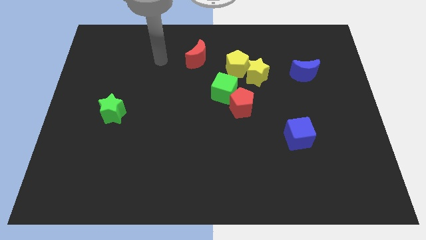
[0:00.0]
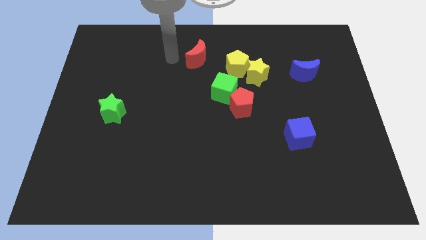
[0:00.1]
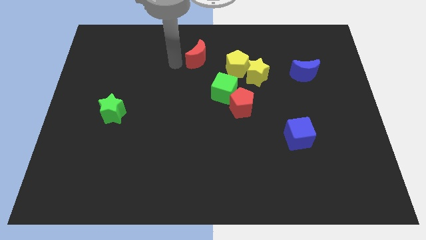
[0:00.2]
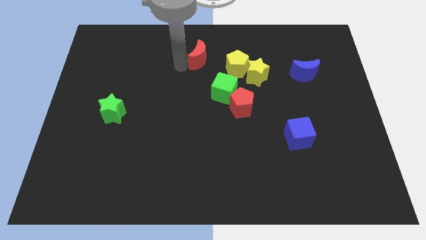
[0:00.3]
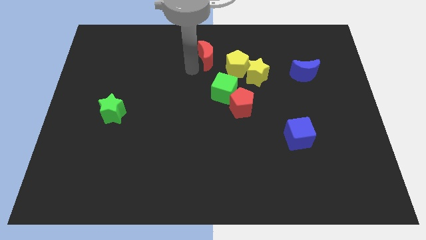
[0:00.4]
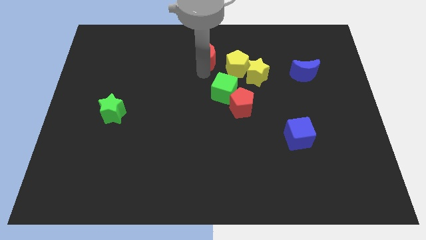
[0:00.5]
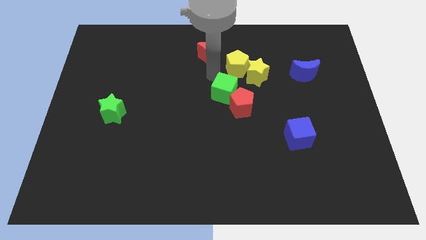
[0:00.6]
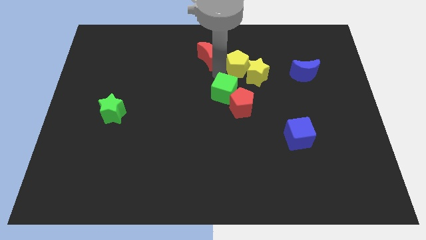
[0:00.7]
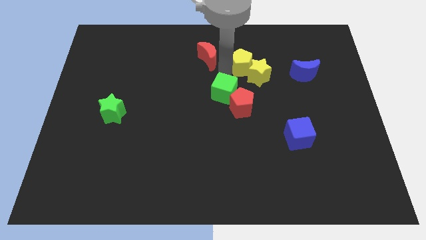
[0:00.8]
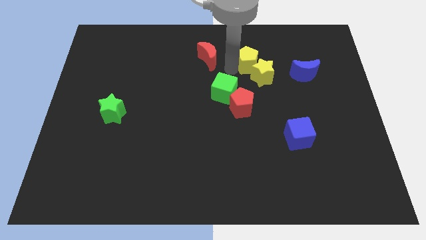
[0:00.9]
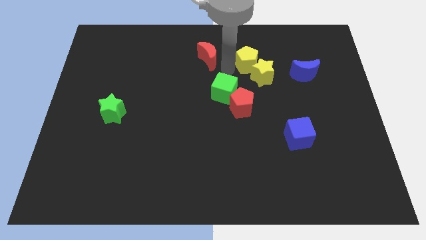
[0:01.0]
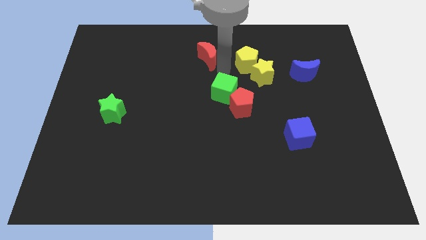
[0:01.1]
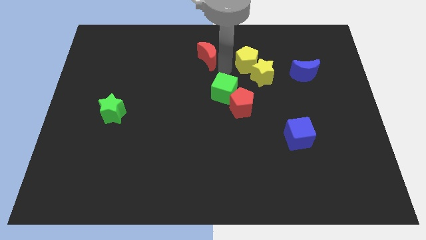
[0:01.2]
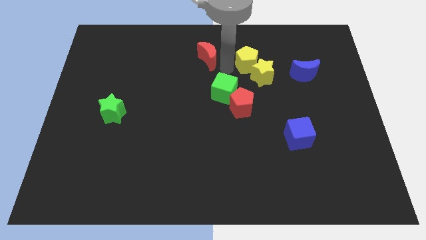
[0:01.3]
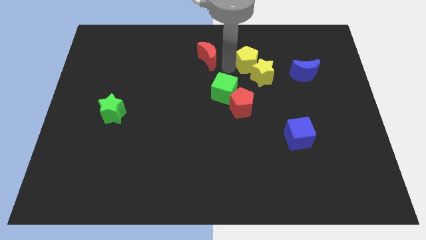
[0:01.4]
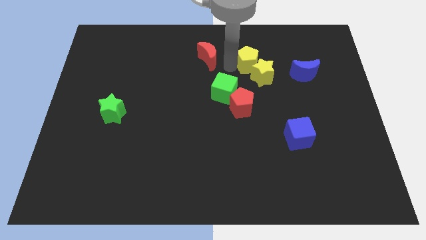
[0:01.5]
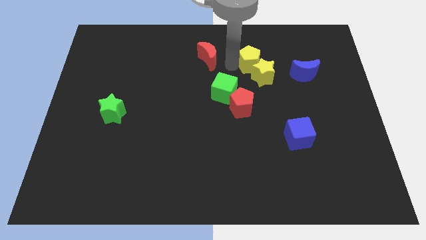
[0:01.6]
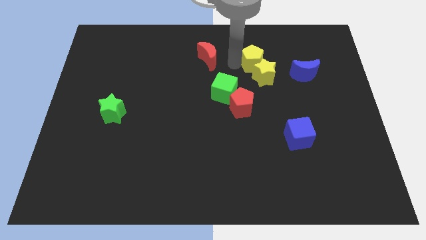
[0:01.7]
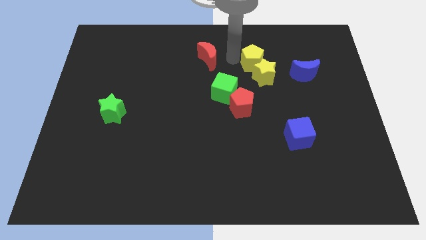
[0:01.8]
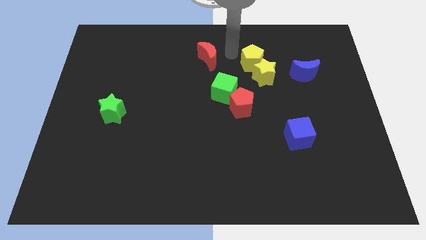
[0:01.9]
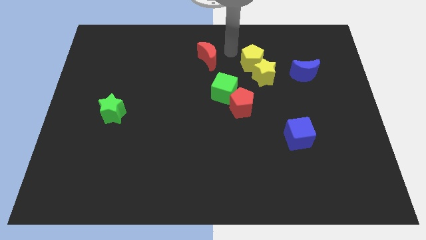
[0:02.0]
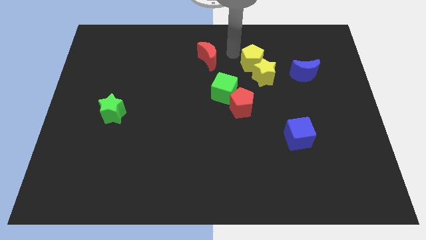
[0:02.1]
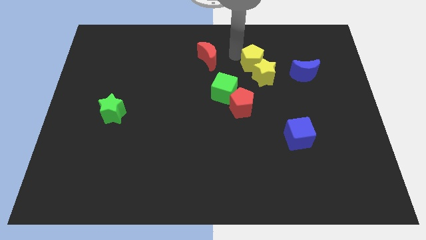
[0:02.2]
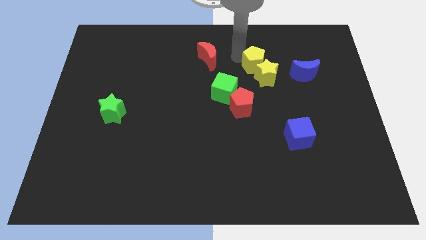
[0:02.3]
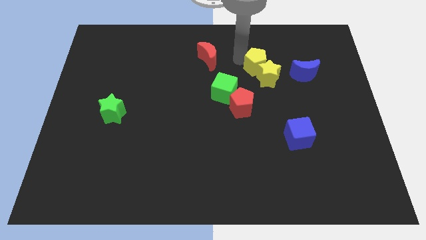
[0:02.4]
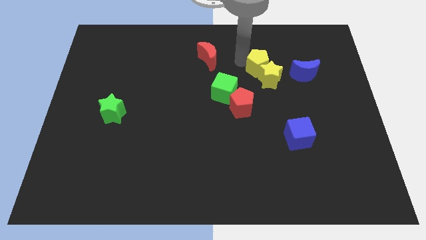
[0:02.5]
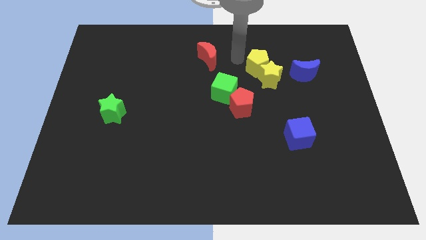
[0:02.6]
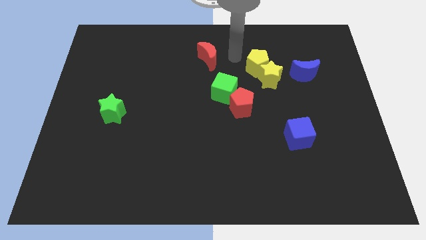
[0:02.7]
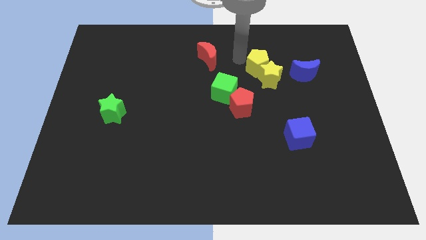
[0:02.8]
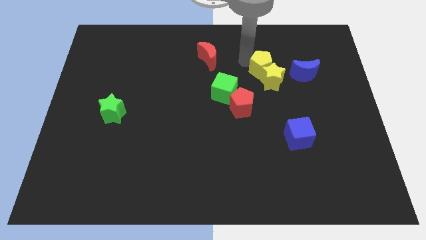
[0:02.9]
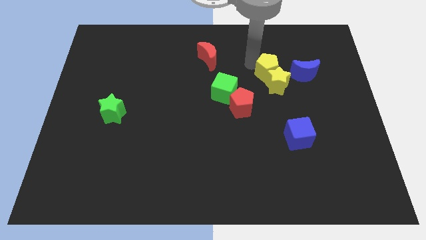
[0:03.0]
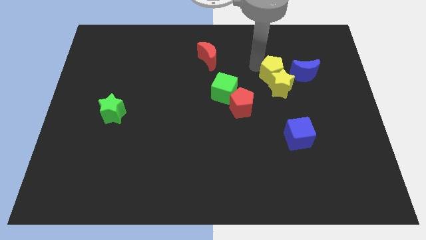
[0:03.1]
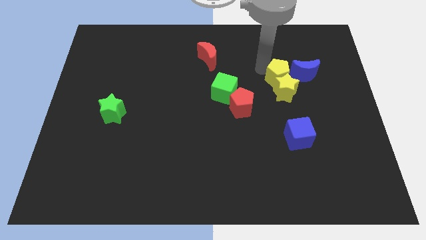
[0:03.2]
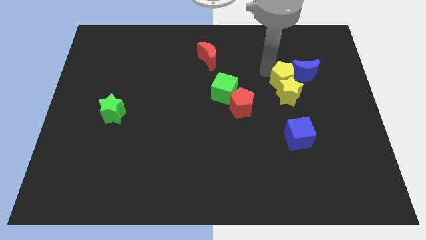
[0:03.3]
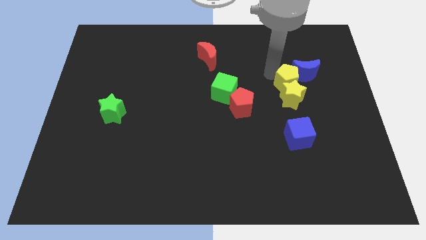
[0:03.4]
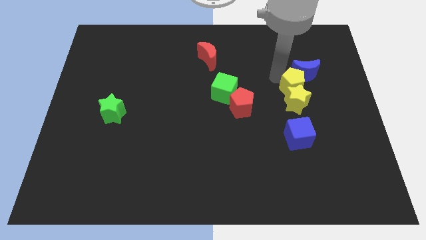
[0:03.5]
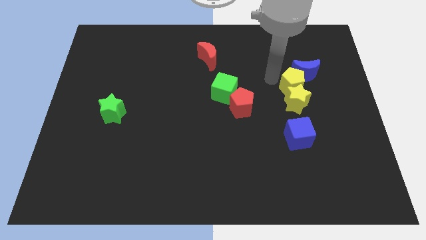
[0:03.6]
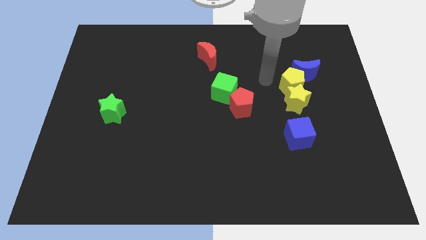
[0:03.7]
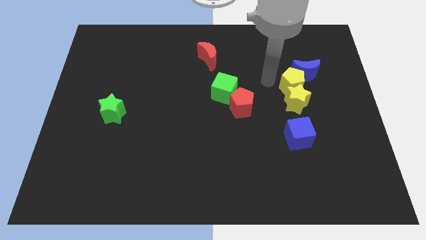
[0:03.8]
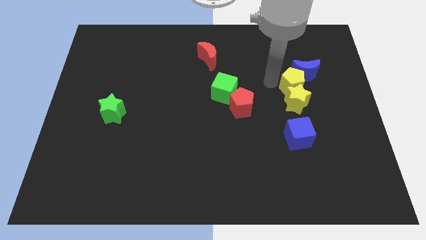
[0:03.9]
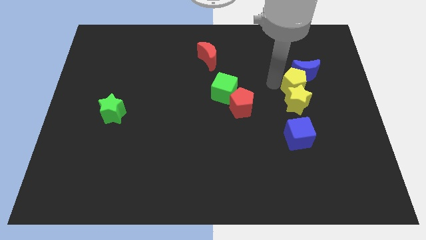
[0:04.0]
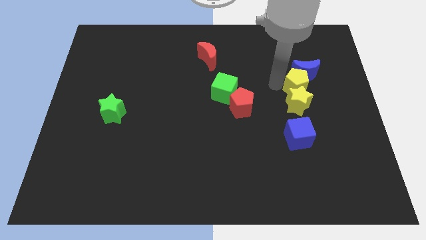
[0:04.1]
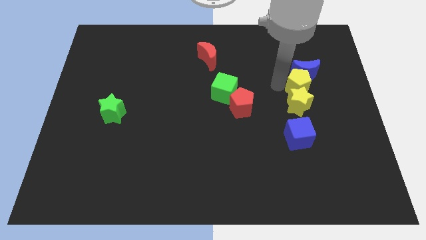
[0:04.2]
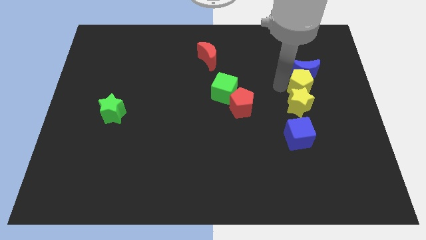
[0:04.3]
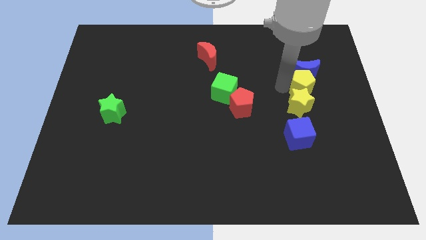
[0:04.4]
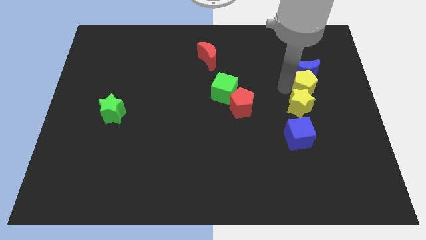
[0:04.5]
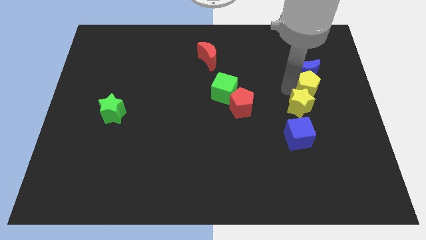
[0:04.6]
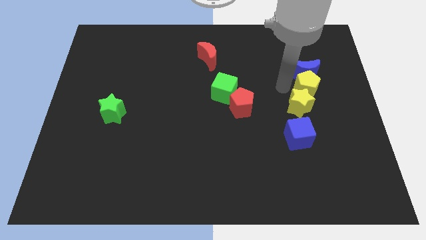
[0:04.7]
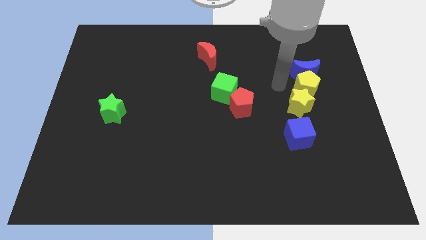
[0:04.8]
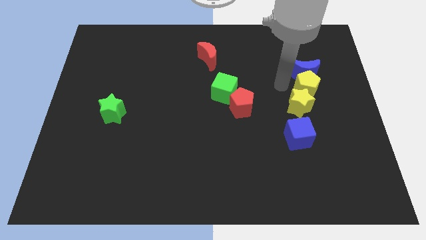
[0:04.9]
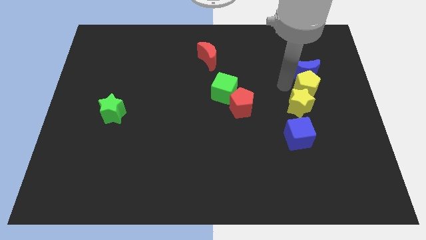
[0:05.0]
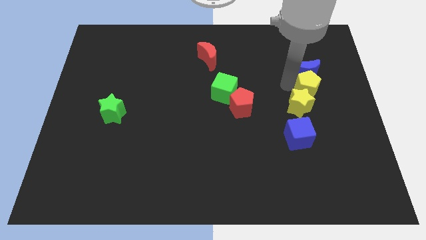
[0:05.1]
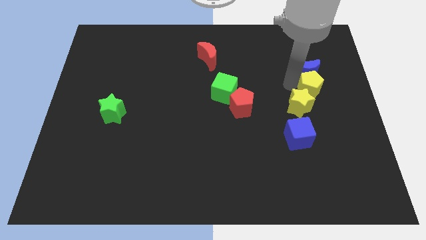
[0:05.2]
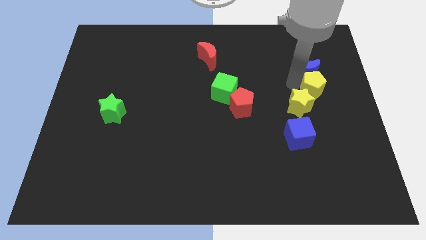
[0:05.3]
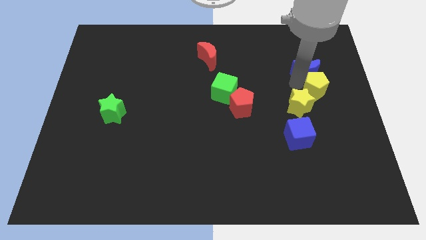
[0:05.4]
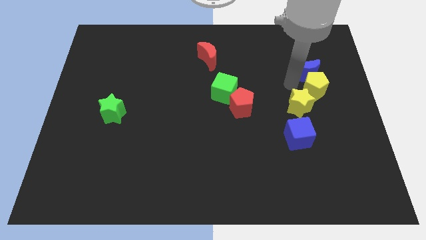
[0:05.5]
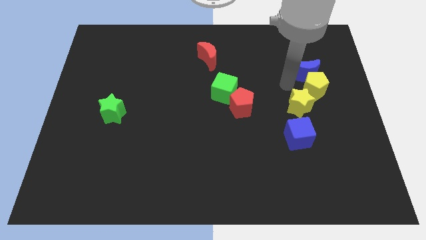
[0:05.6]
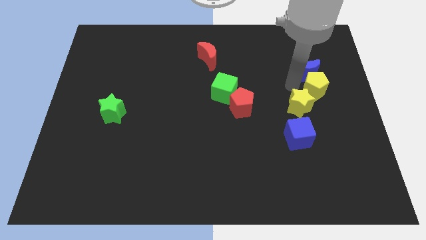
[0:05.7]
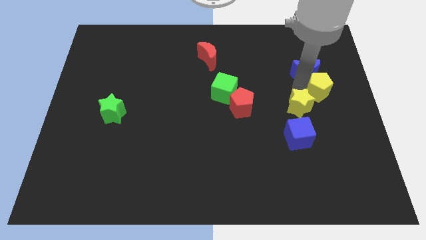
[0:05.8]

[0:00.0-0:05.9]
put the yellow pentagon to the center right
